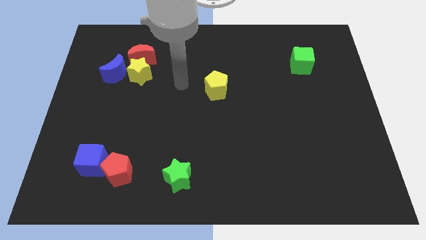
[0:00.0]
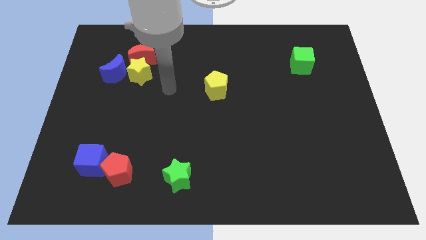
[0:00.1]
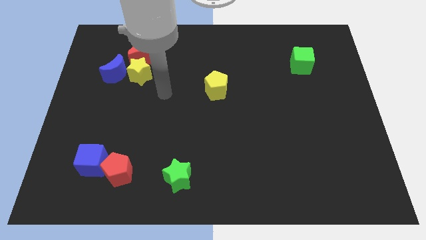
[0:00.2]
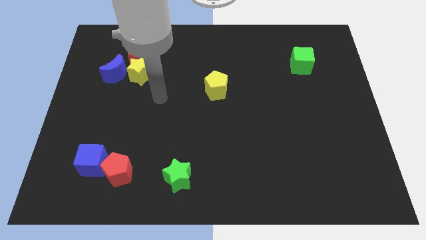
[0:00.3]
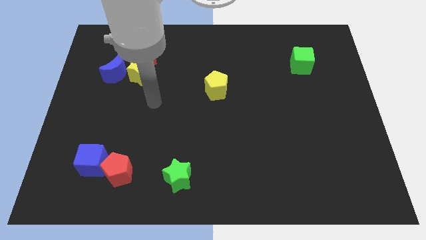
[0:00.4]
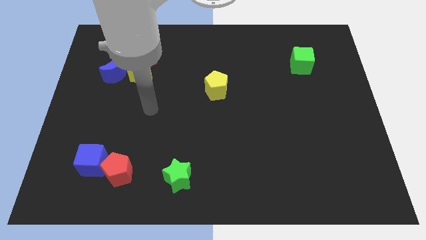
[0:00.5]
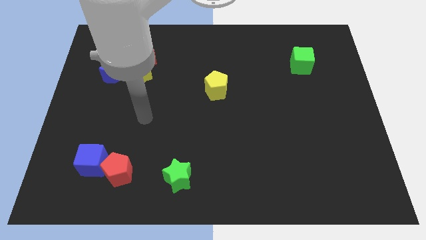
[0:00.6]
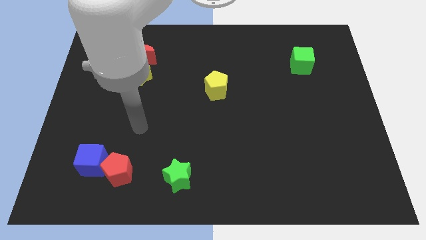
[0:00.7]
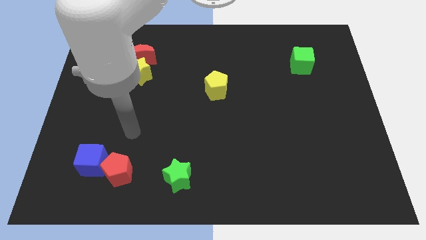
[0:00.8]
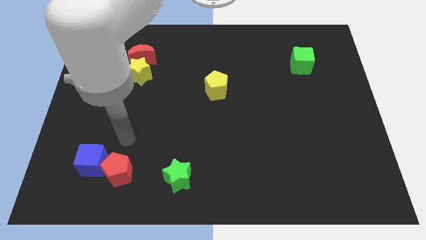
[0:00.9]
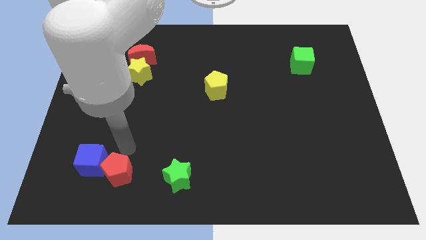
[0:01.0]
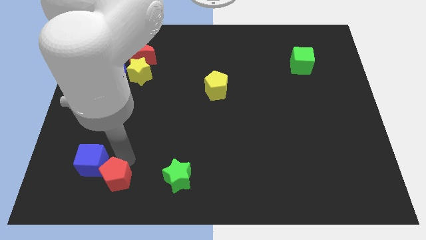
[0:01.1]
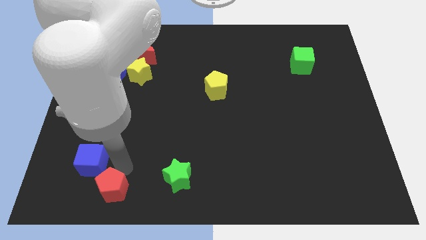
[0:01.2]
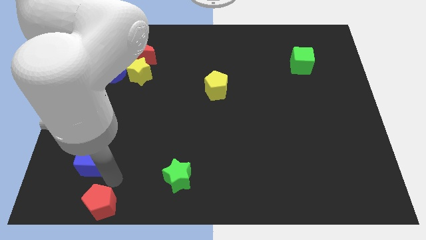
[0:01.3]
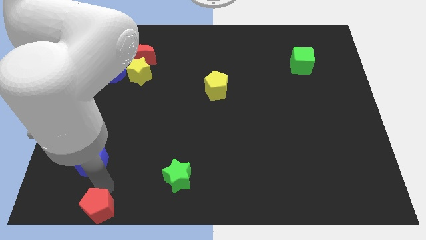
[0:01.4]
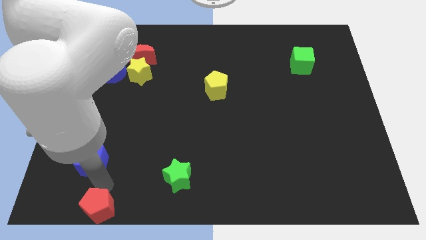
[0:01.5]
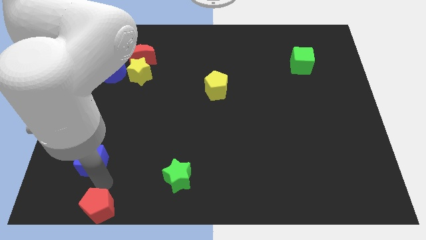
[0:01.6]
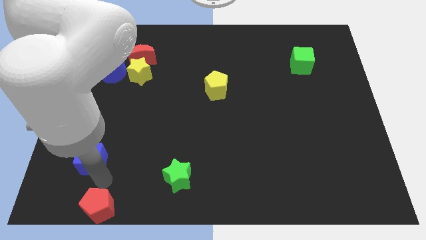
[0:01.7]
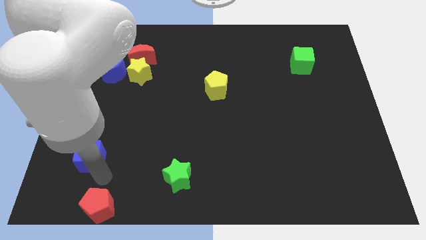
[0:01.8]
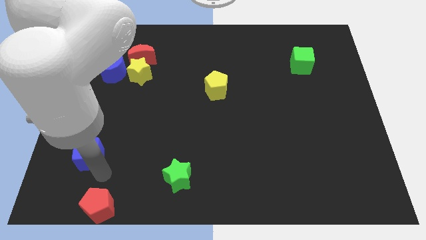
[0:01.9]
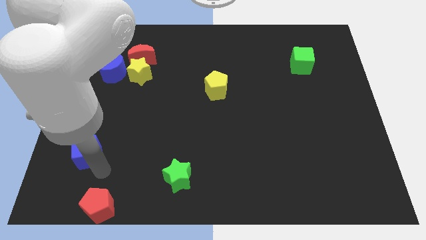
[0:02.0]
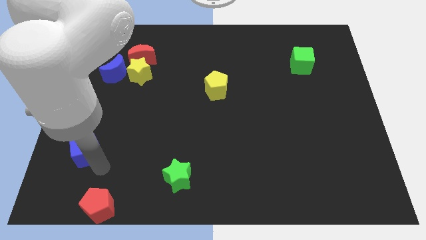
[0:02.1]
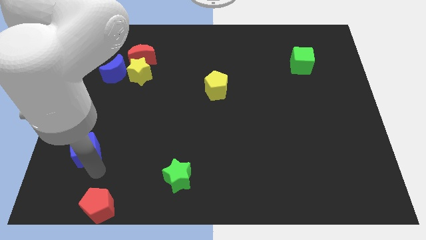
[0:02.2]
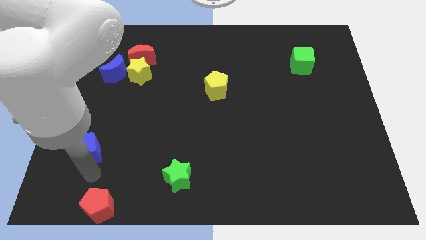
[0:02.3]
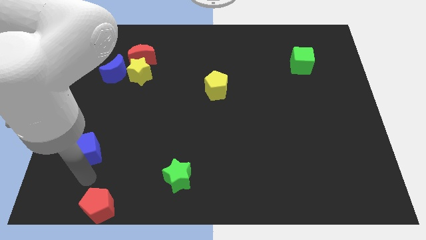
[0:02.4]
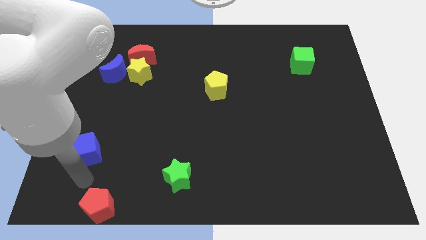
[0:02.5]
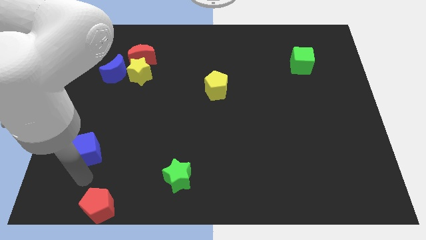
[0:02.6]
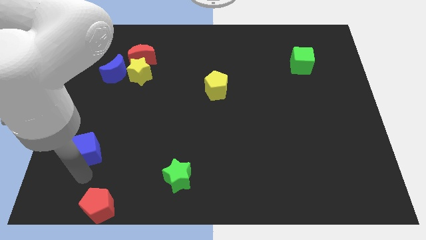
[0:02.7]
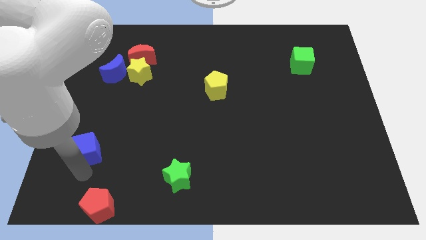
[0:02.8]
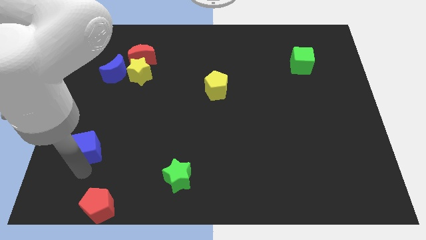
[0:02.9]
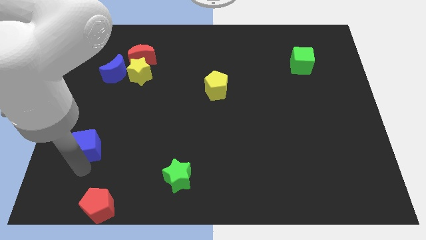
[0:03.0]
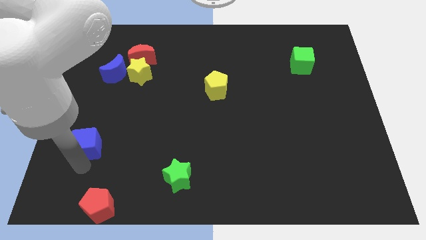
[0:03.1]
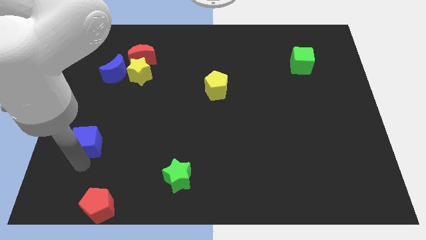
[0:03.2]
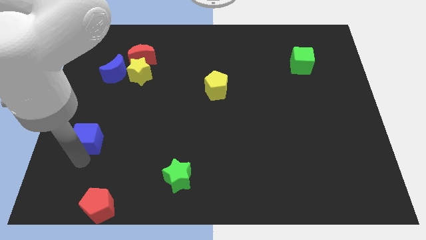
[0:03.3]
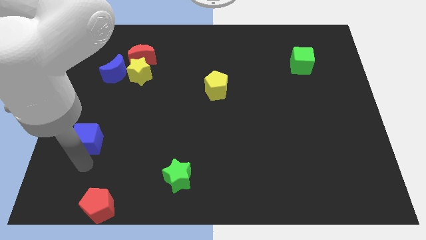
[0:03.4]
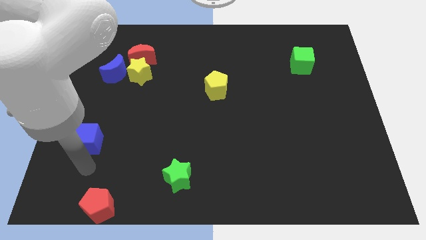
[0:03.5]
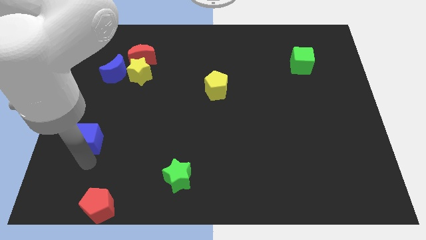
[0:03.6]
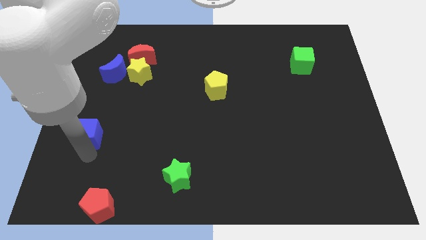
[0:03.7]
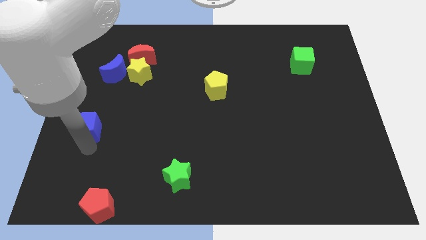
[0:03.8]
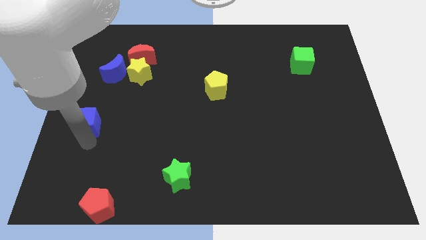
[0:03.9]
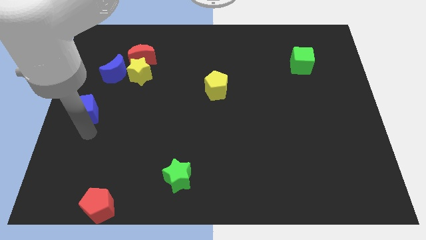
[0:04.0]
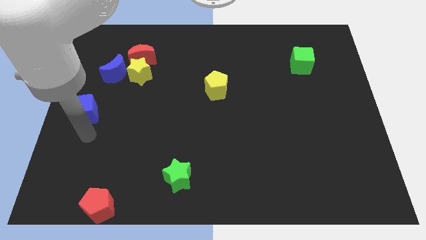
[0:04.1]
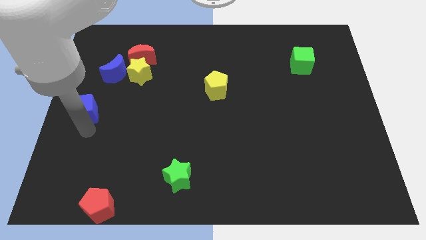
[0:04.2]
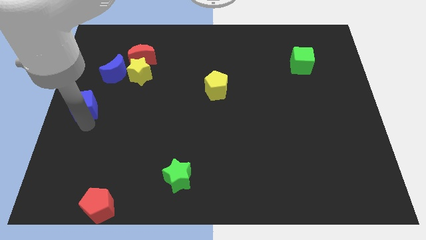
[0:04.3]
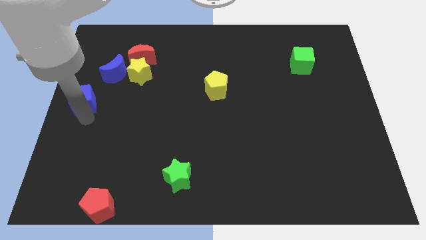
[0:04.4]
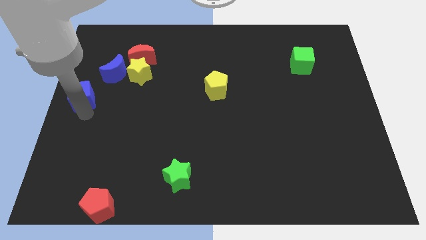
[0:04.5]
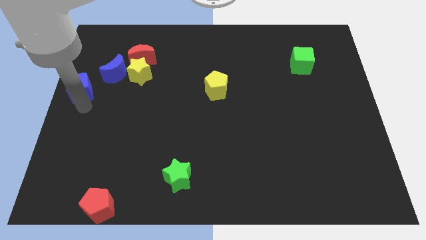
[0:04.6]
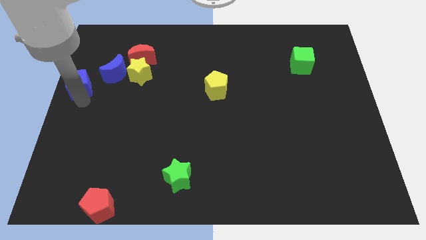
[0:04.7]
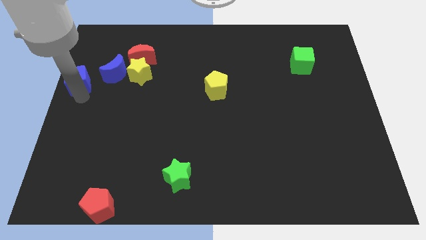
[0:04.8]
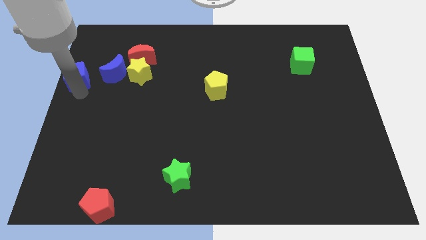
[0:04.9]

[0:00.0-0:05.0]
move the blue cube up

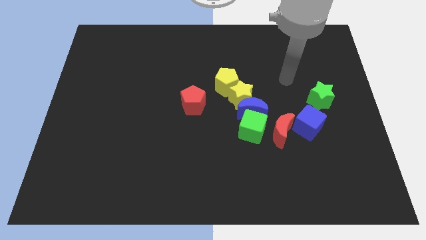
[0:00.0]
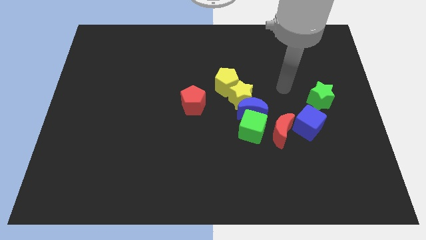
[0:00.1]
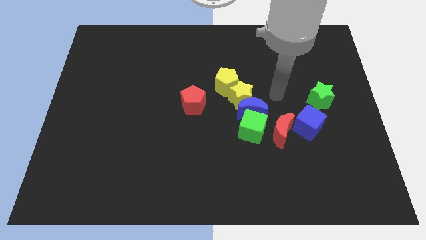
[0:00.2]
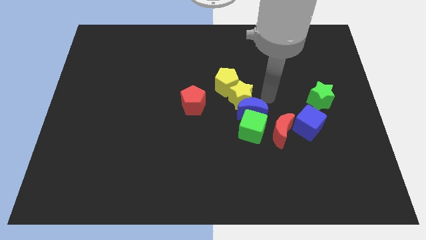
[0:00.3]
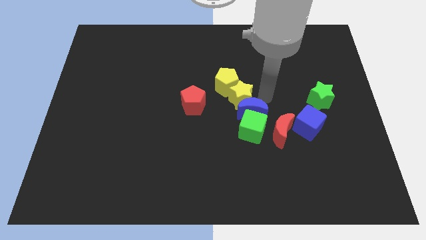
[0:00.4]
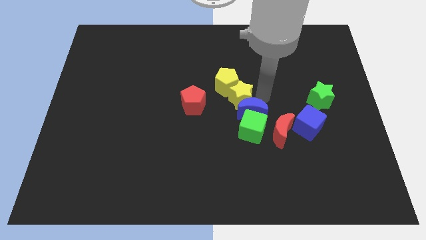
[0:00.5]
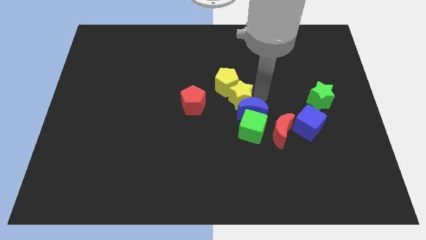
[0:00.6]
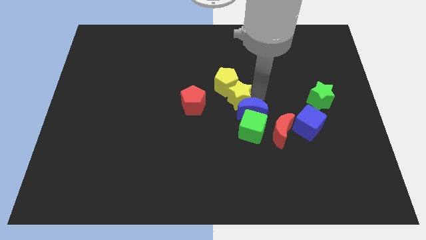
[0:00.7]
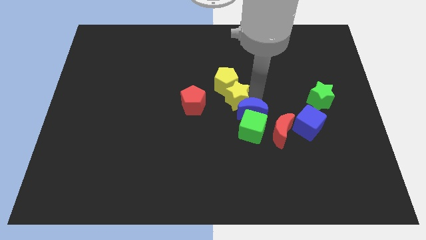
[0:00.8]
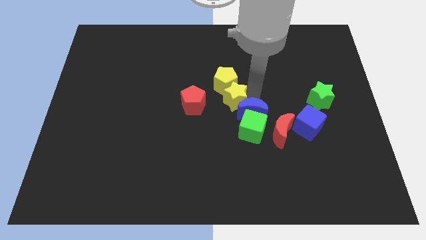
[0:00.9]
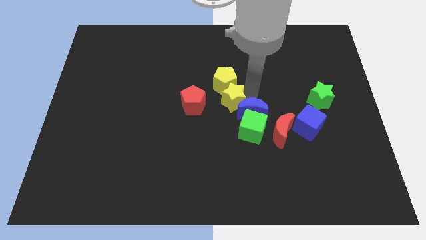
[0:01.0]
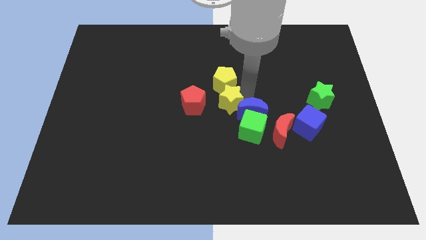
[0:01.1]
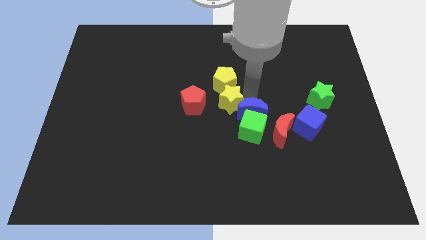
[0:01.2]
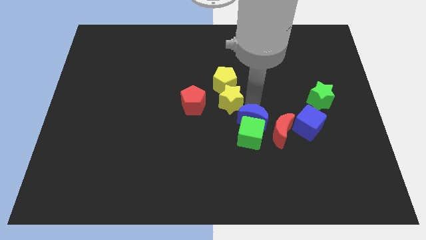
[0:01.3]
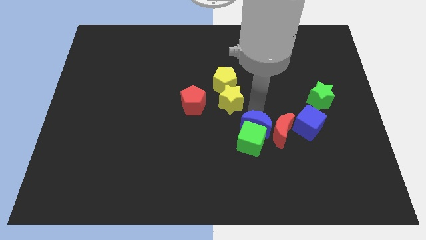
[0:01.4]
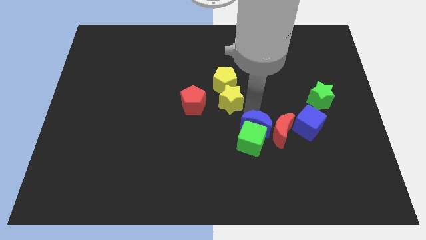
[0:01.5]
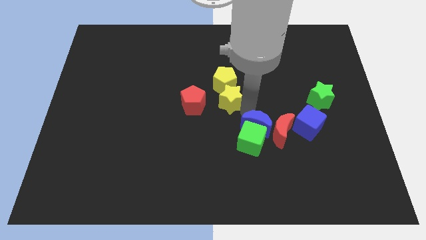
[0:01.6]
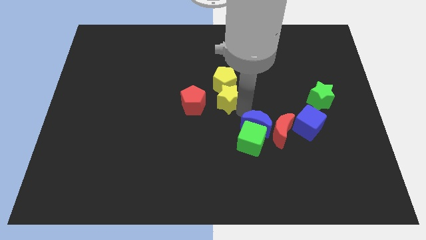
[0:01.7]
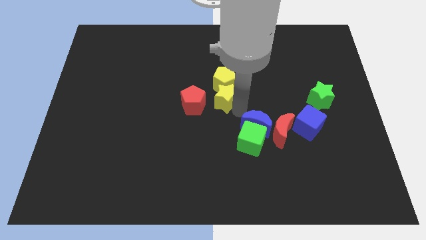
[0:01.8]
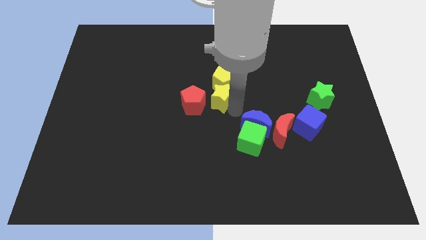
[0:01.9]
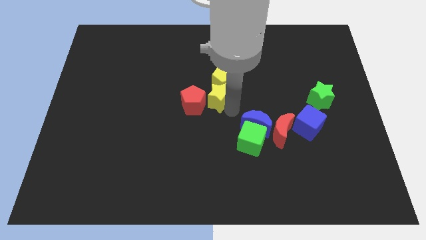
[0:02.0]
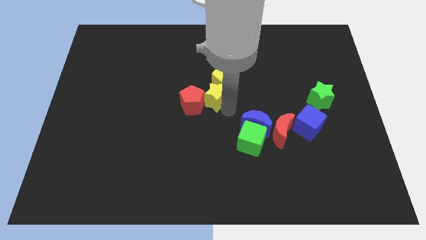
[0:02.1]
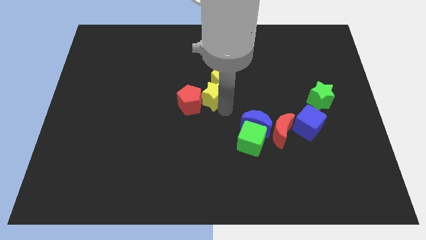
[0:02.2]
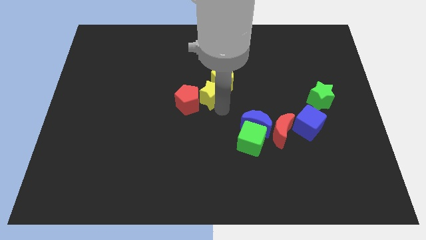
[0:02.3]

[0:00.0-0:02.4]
slightly move the yellow star left

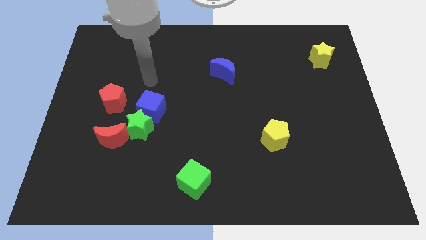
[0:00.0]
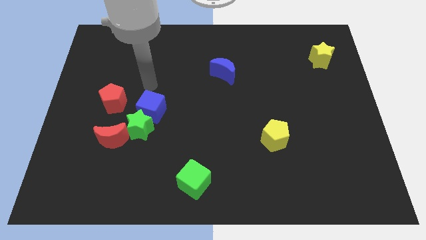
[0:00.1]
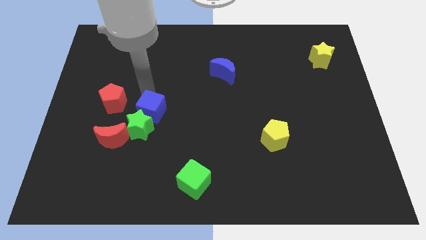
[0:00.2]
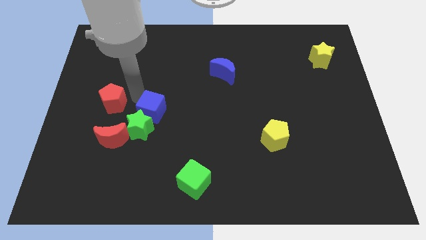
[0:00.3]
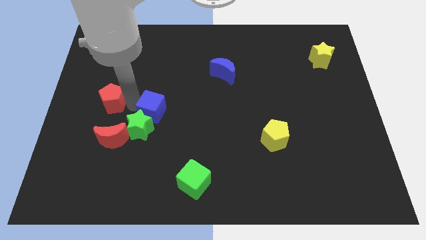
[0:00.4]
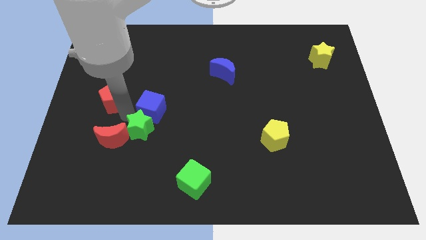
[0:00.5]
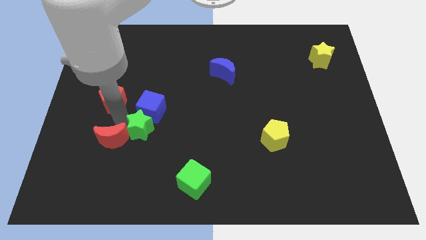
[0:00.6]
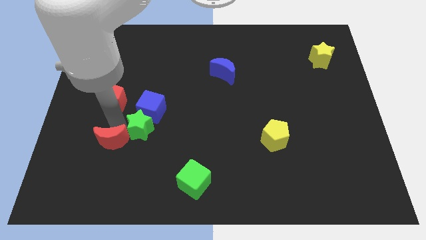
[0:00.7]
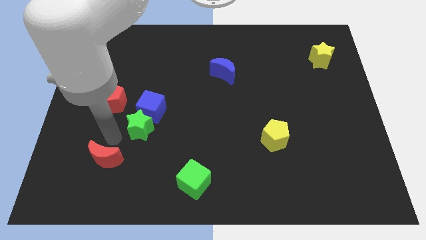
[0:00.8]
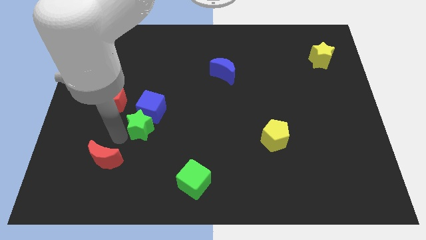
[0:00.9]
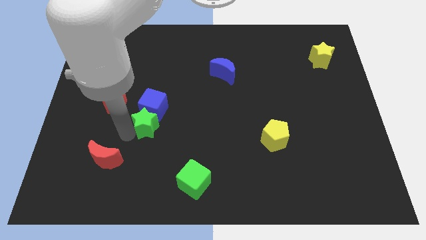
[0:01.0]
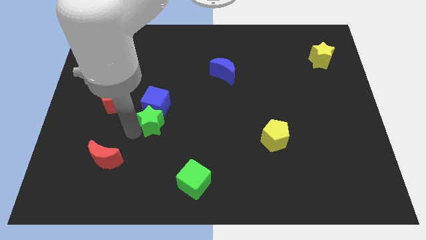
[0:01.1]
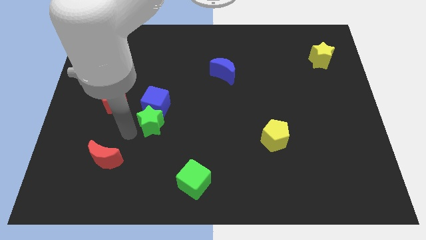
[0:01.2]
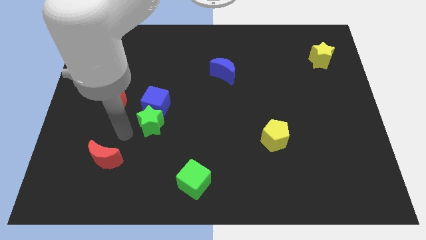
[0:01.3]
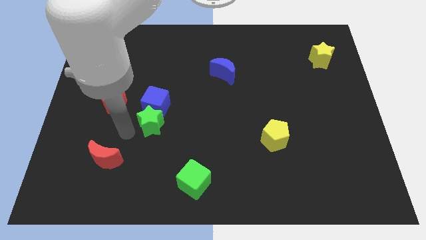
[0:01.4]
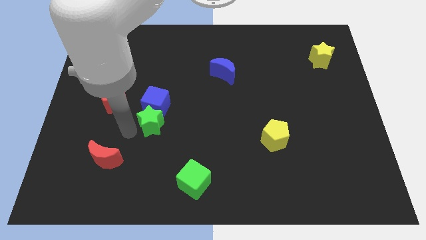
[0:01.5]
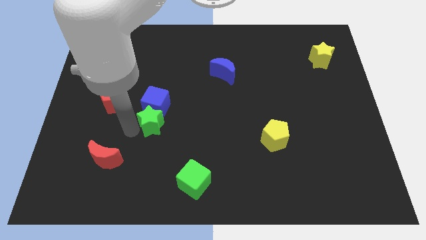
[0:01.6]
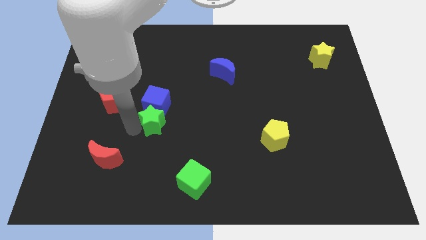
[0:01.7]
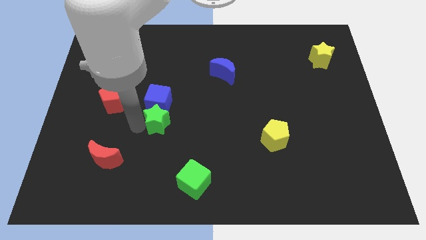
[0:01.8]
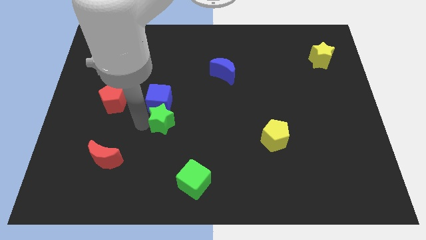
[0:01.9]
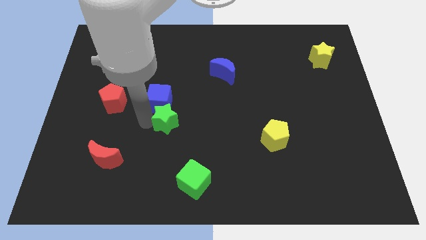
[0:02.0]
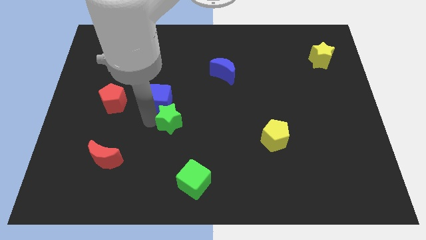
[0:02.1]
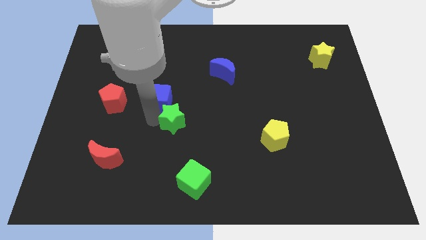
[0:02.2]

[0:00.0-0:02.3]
slide the green star a bit to the right
